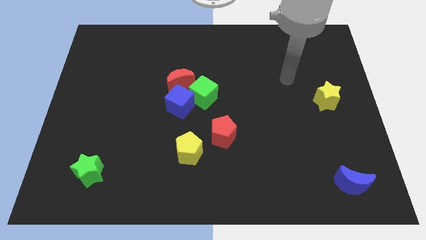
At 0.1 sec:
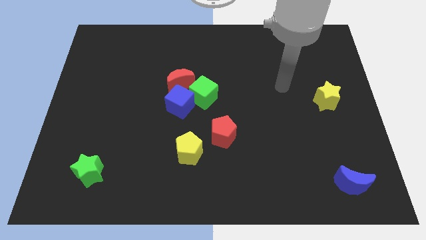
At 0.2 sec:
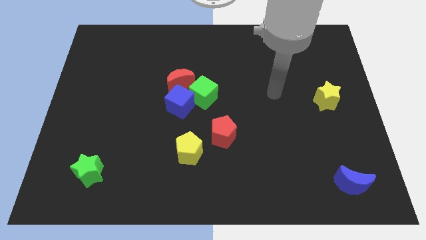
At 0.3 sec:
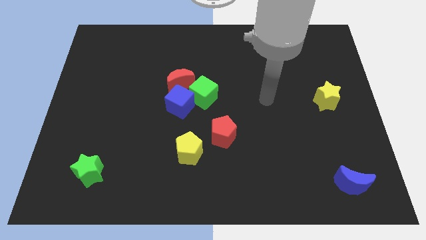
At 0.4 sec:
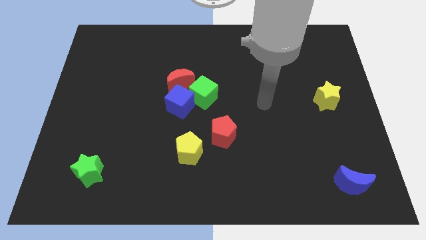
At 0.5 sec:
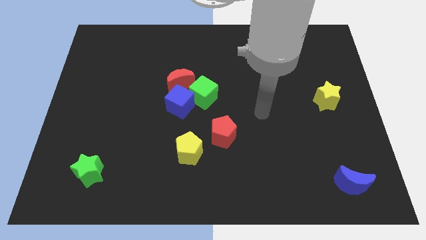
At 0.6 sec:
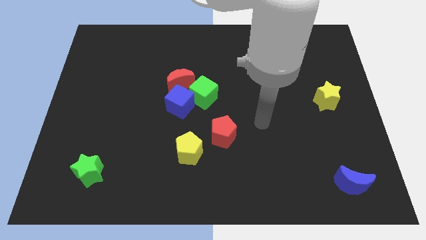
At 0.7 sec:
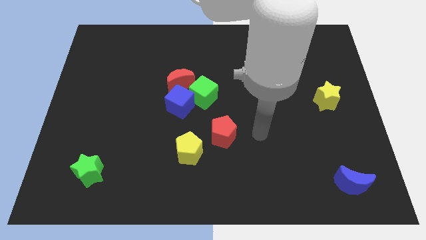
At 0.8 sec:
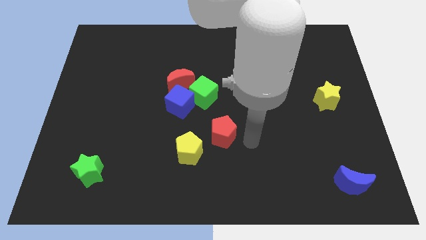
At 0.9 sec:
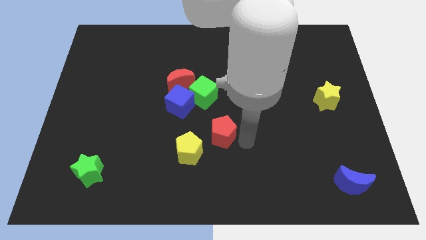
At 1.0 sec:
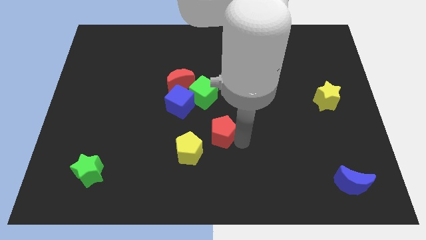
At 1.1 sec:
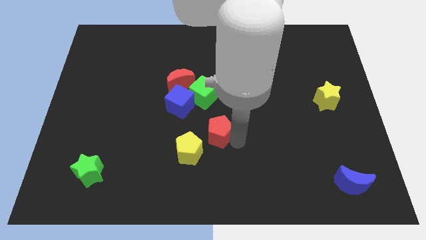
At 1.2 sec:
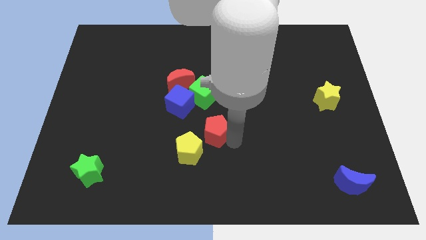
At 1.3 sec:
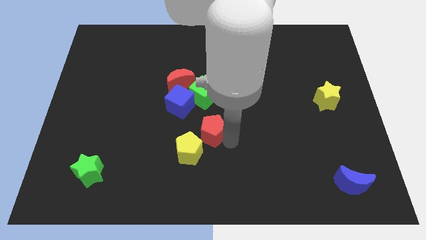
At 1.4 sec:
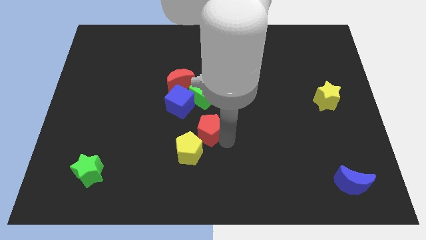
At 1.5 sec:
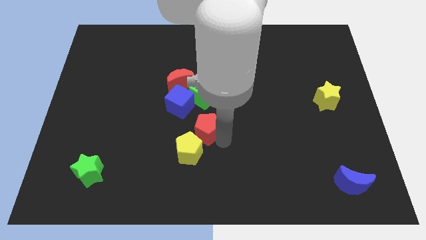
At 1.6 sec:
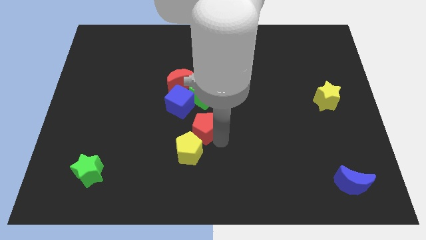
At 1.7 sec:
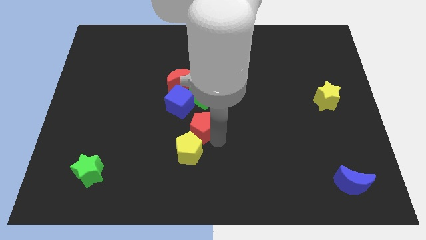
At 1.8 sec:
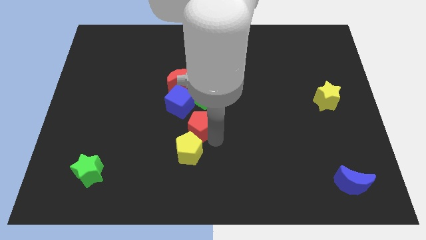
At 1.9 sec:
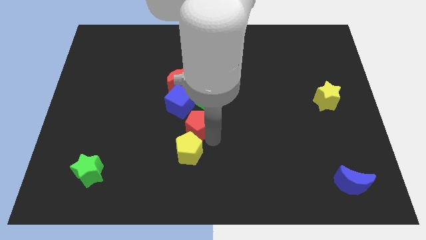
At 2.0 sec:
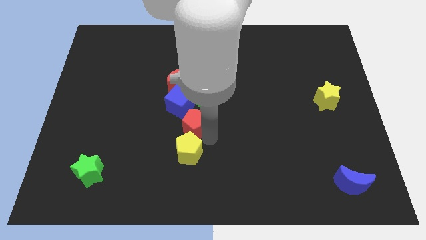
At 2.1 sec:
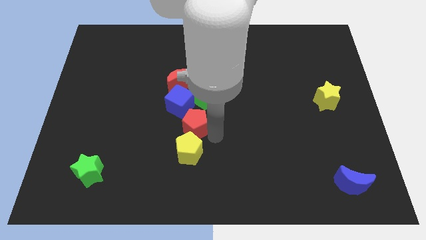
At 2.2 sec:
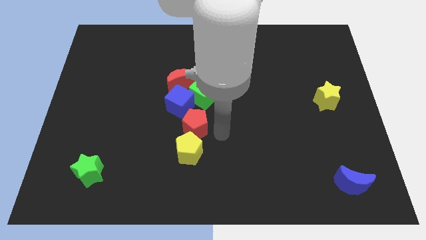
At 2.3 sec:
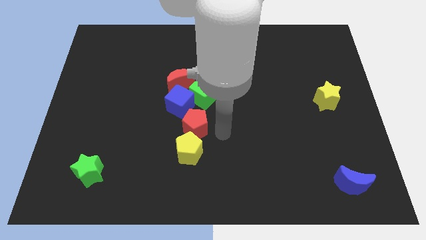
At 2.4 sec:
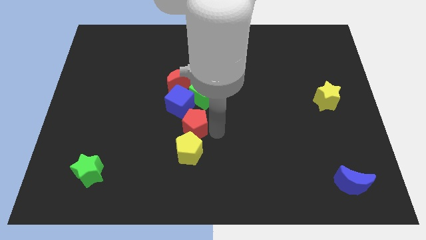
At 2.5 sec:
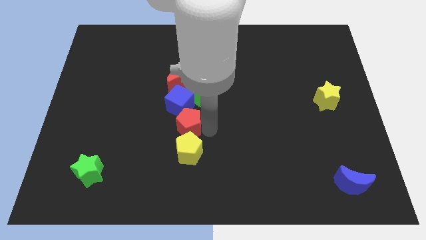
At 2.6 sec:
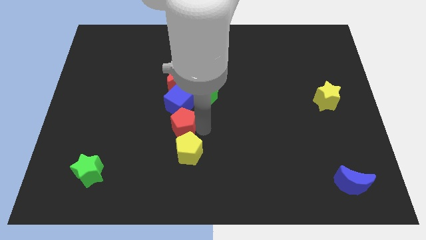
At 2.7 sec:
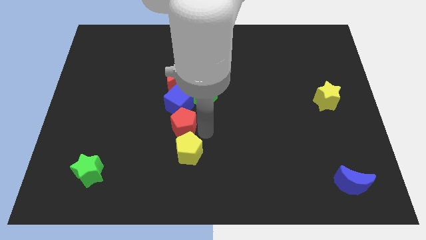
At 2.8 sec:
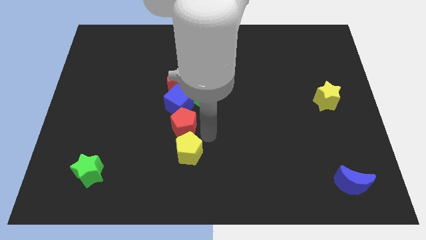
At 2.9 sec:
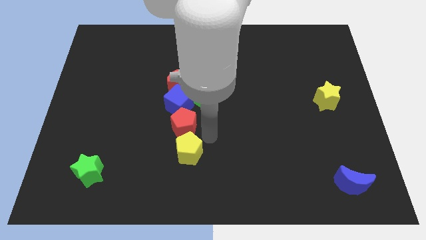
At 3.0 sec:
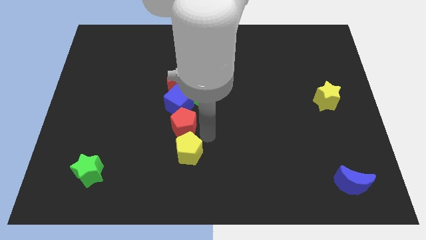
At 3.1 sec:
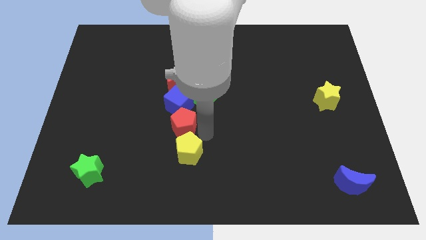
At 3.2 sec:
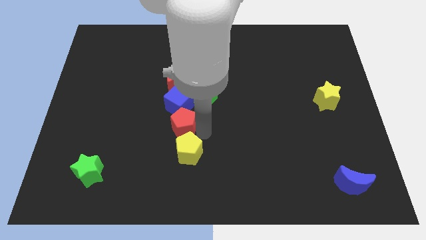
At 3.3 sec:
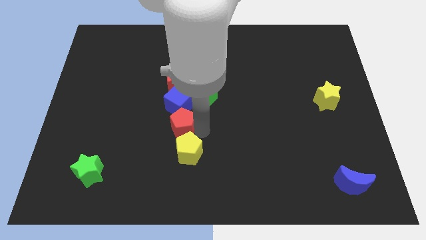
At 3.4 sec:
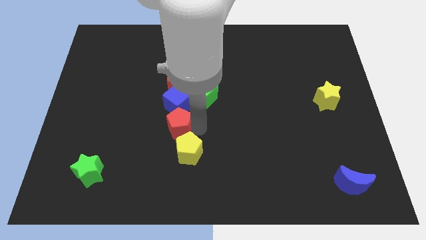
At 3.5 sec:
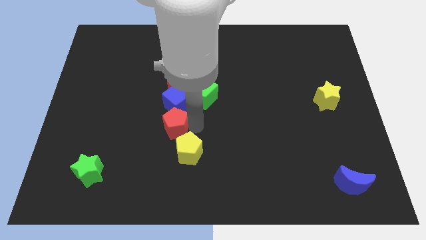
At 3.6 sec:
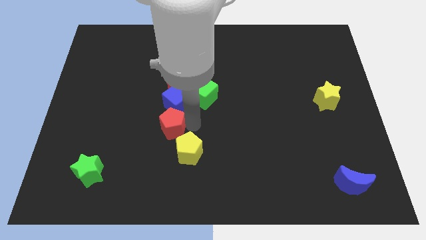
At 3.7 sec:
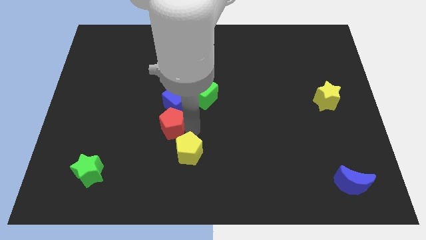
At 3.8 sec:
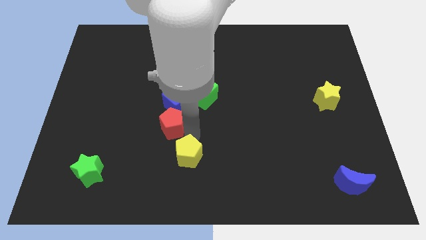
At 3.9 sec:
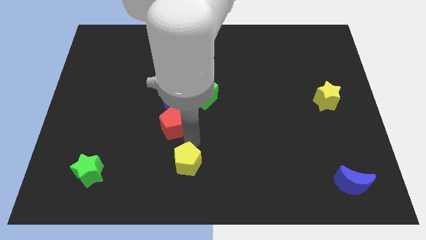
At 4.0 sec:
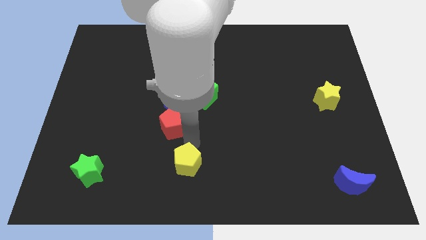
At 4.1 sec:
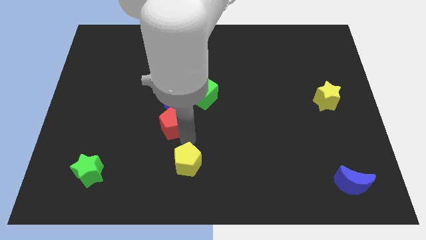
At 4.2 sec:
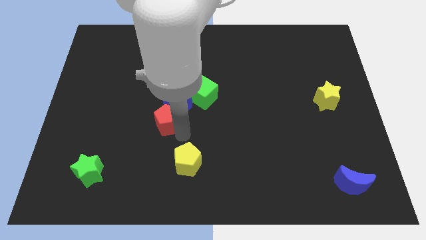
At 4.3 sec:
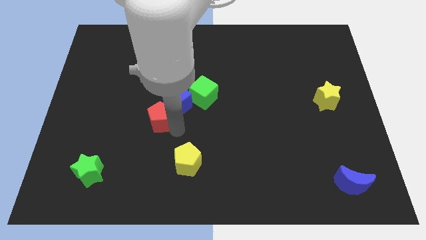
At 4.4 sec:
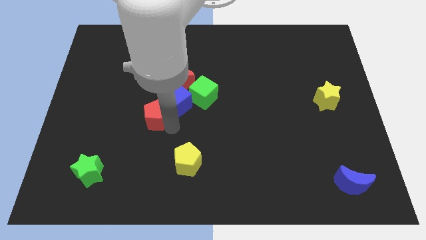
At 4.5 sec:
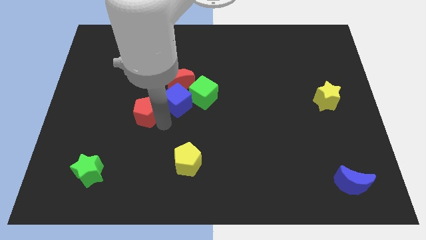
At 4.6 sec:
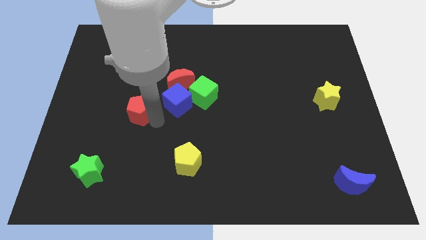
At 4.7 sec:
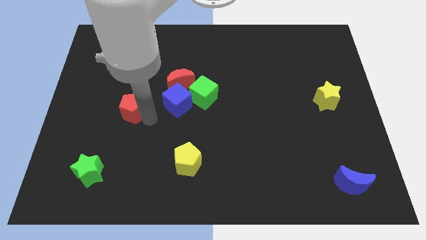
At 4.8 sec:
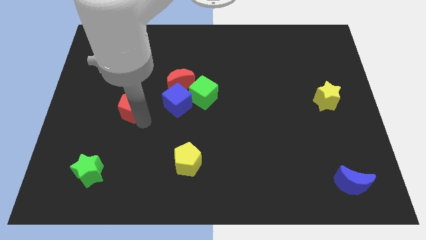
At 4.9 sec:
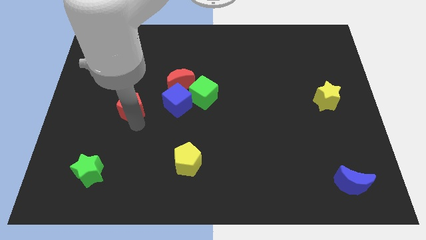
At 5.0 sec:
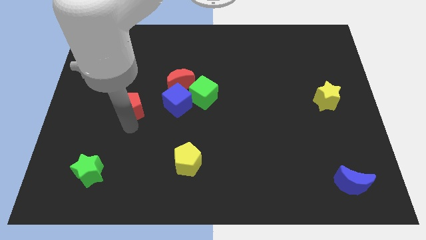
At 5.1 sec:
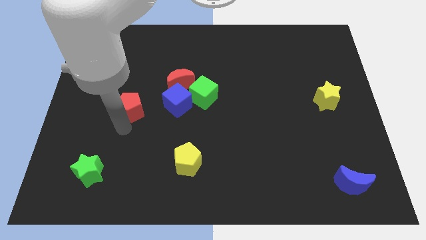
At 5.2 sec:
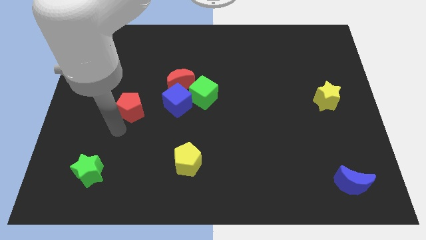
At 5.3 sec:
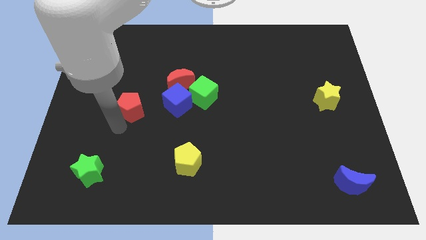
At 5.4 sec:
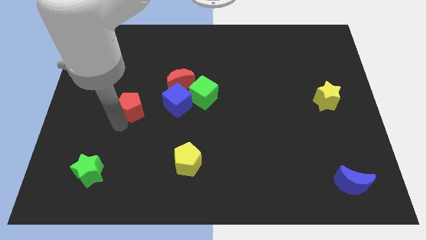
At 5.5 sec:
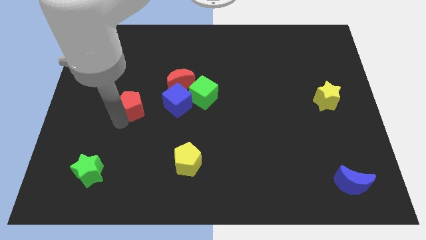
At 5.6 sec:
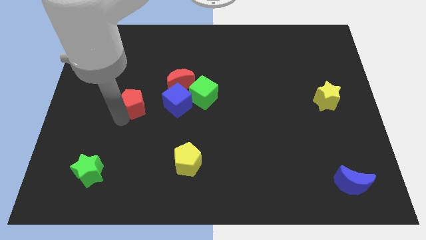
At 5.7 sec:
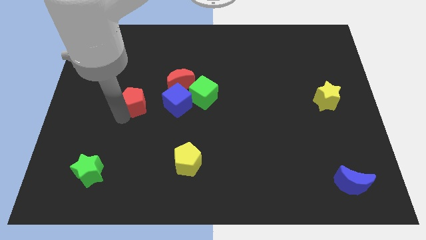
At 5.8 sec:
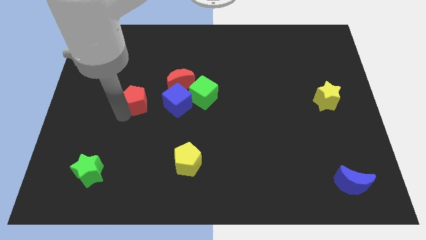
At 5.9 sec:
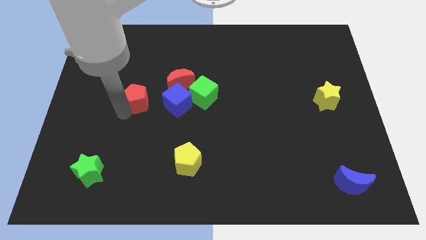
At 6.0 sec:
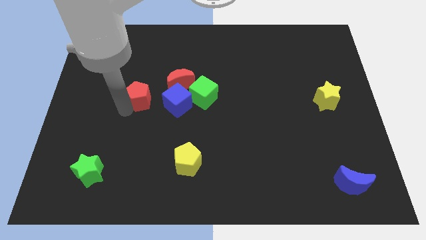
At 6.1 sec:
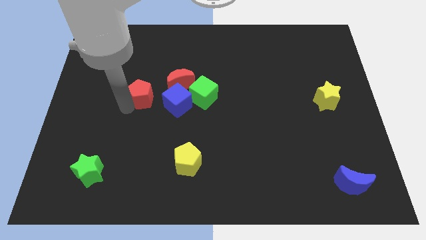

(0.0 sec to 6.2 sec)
move the red pentagon up and to the left

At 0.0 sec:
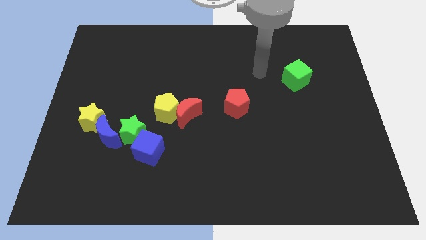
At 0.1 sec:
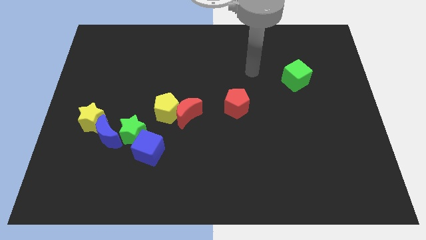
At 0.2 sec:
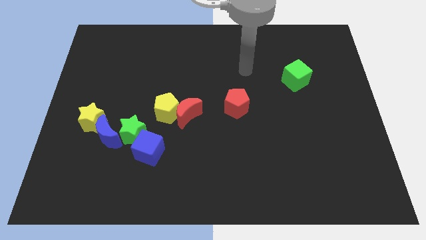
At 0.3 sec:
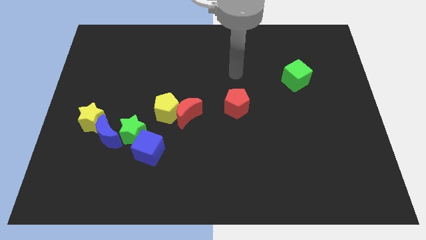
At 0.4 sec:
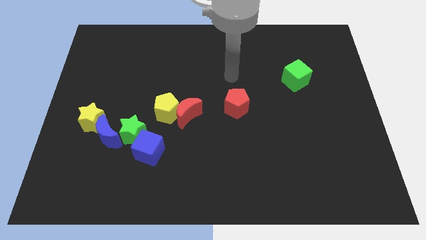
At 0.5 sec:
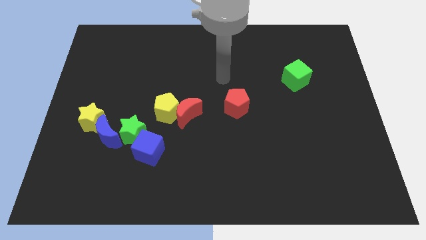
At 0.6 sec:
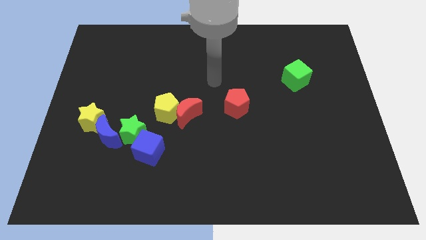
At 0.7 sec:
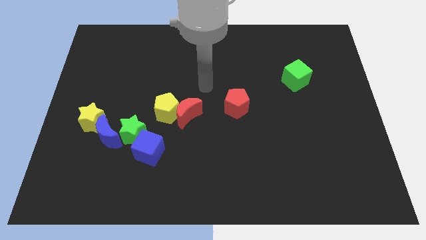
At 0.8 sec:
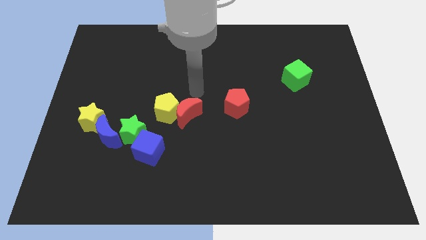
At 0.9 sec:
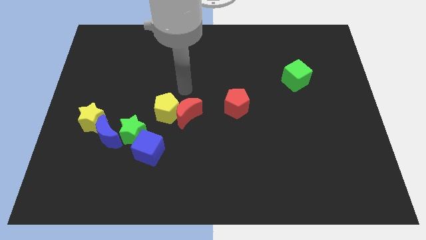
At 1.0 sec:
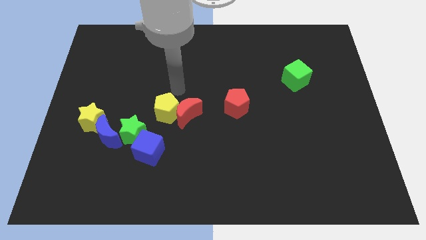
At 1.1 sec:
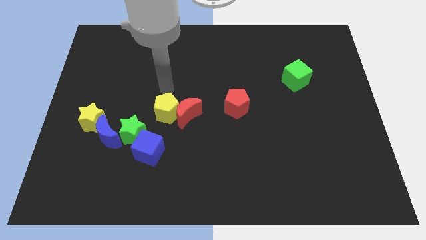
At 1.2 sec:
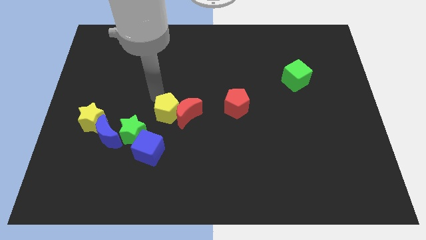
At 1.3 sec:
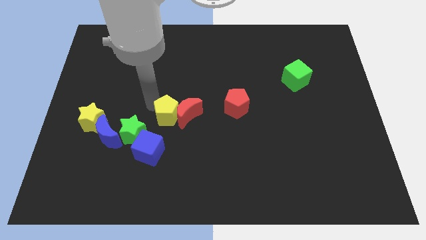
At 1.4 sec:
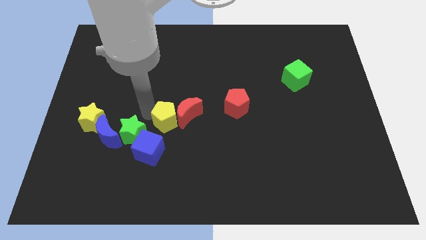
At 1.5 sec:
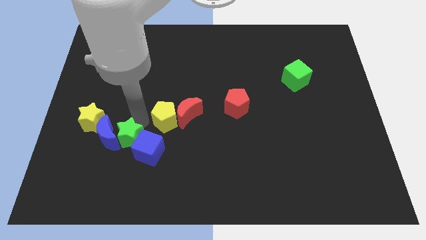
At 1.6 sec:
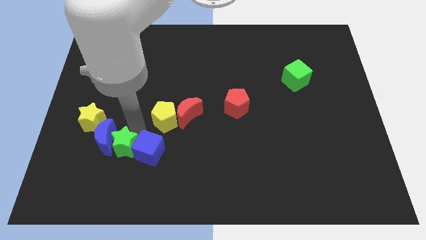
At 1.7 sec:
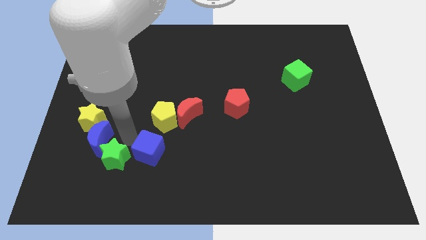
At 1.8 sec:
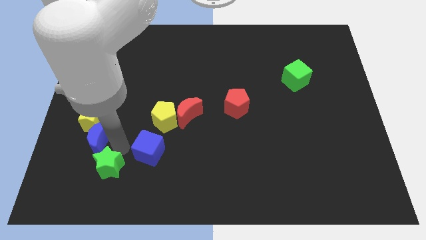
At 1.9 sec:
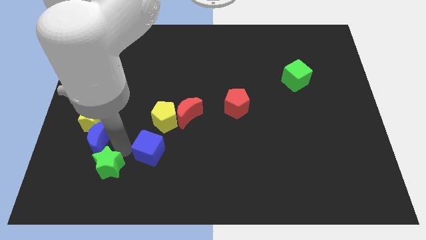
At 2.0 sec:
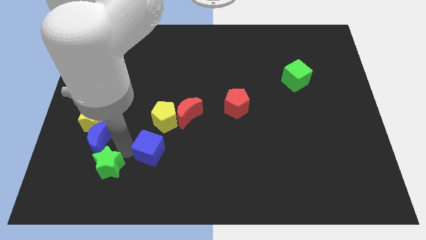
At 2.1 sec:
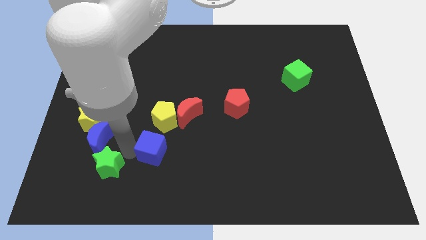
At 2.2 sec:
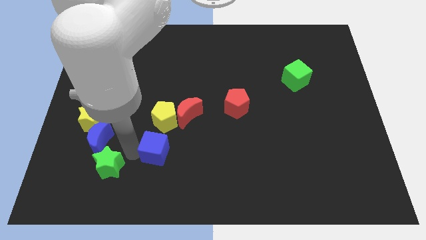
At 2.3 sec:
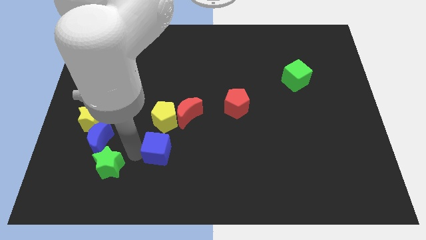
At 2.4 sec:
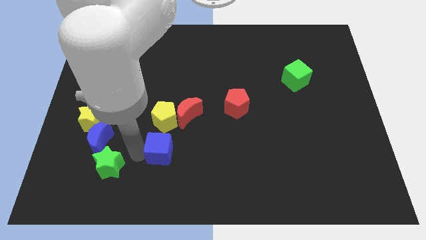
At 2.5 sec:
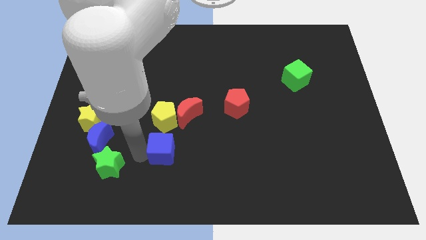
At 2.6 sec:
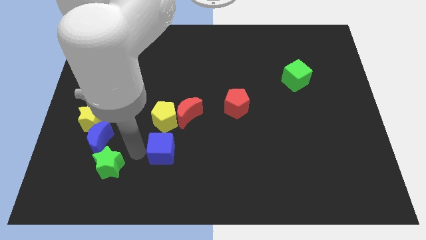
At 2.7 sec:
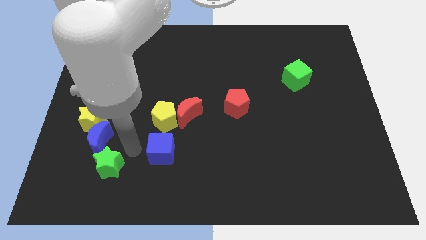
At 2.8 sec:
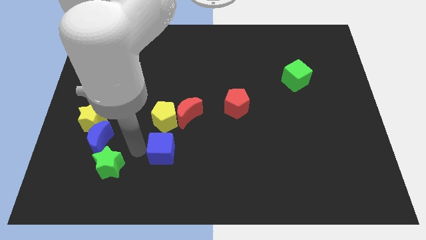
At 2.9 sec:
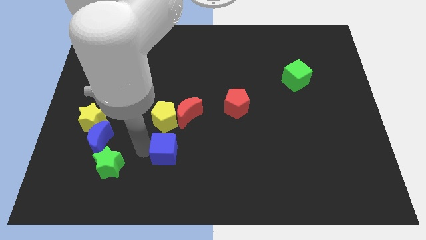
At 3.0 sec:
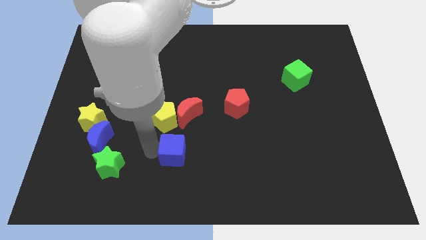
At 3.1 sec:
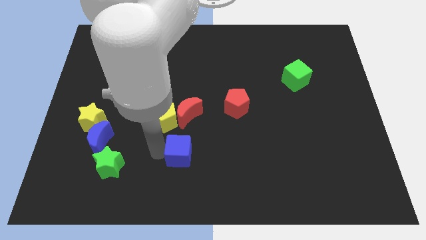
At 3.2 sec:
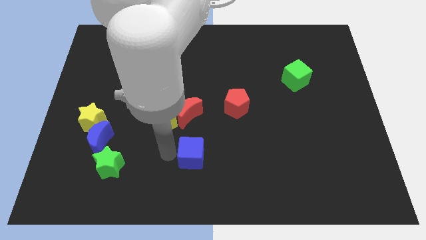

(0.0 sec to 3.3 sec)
push the blue cube to the right slightly
